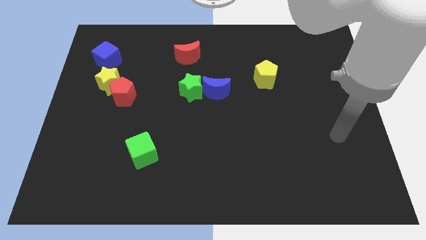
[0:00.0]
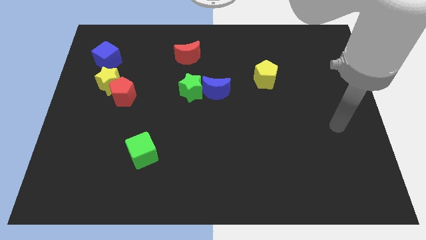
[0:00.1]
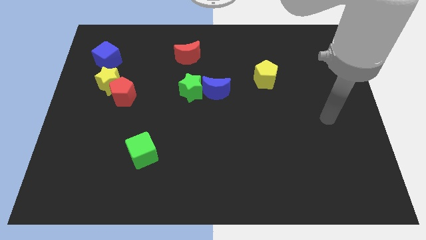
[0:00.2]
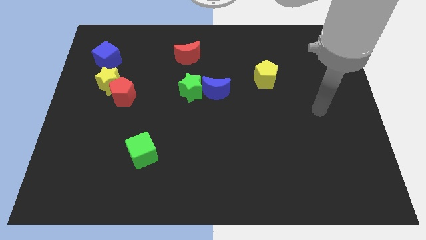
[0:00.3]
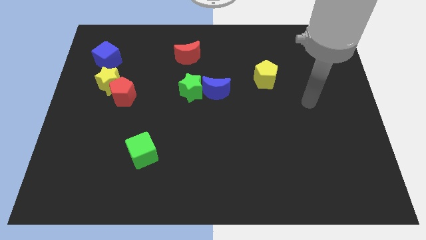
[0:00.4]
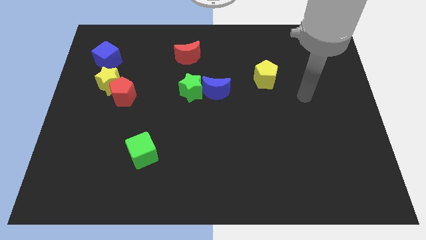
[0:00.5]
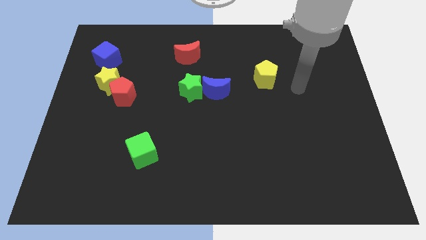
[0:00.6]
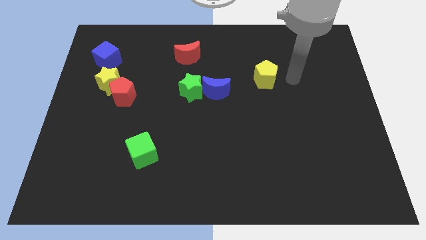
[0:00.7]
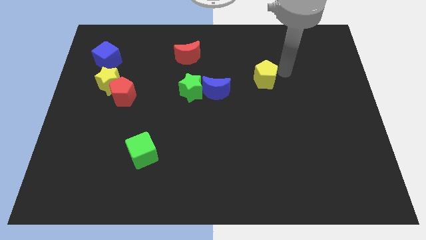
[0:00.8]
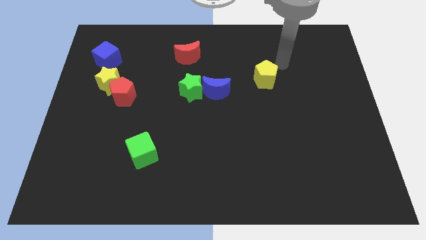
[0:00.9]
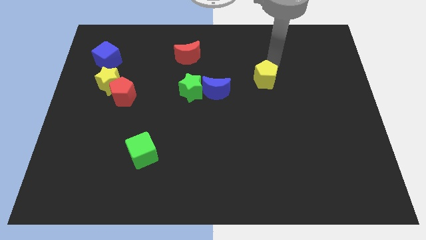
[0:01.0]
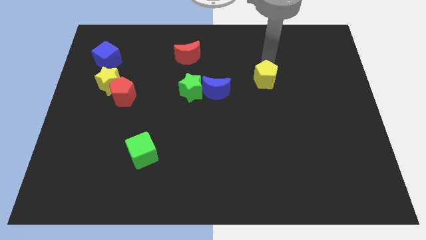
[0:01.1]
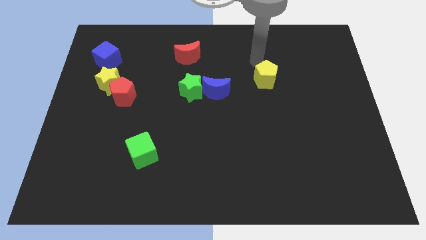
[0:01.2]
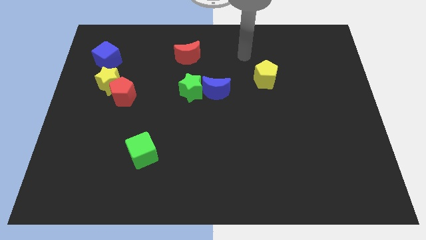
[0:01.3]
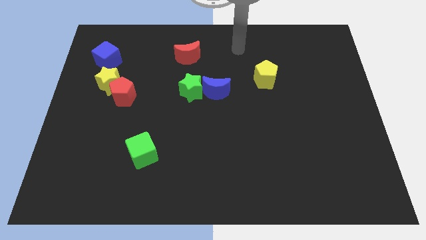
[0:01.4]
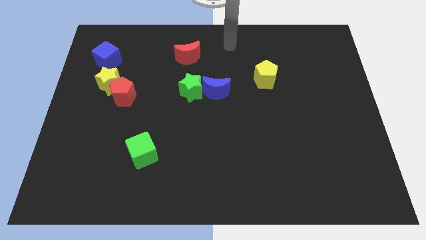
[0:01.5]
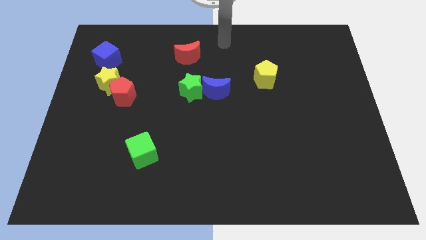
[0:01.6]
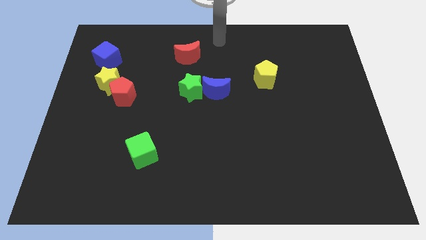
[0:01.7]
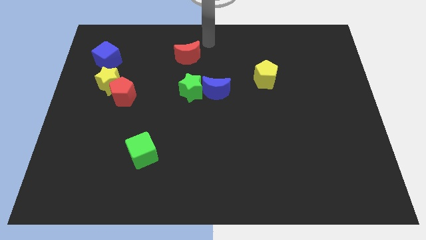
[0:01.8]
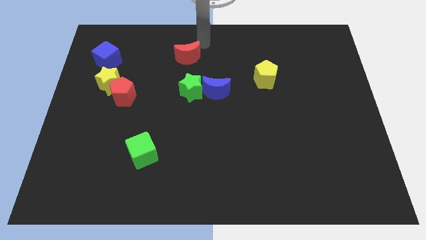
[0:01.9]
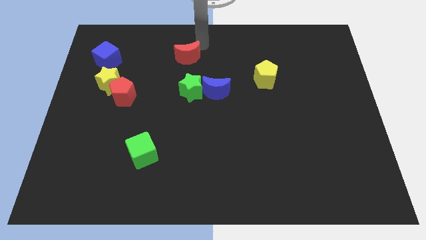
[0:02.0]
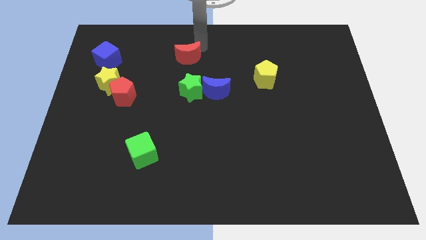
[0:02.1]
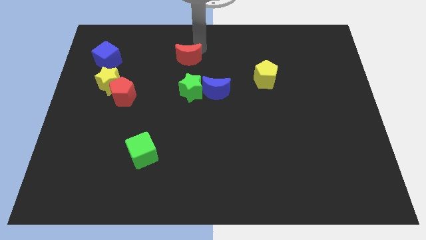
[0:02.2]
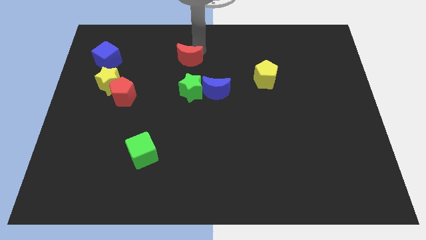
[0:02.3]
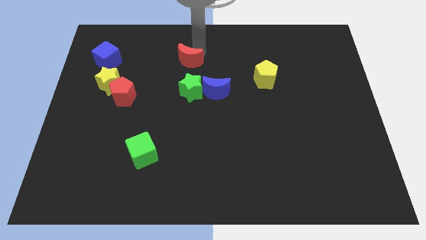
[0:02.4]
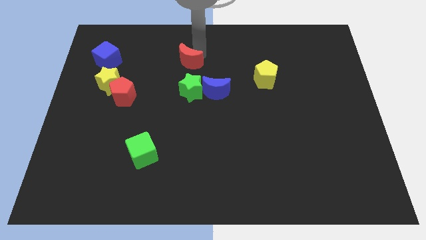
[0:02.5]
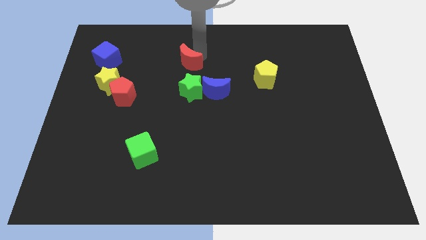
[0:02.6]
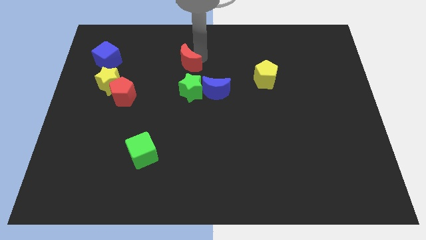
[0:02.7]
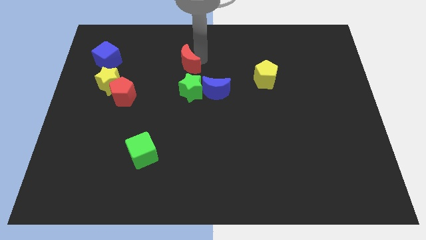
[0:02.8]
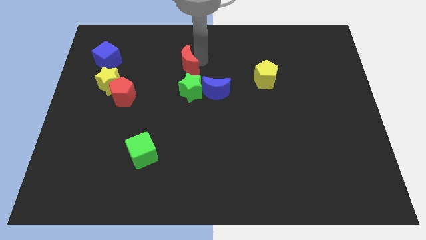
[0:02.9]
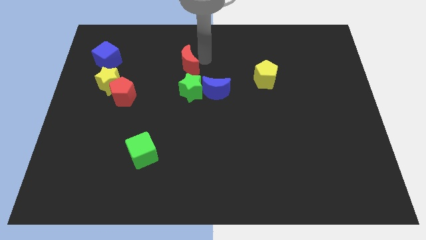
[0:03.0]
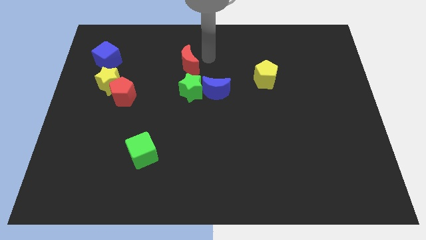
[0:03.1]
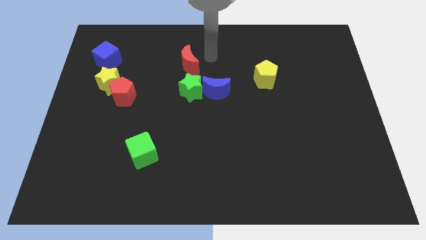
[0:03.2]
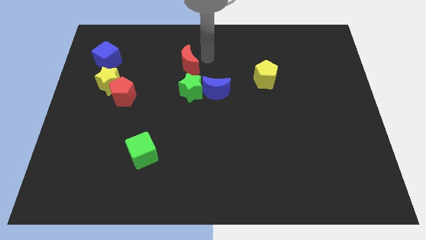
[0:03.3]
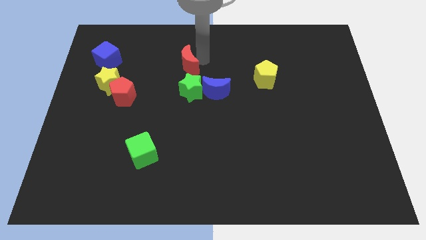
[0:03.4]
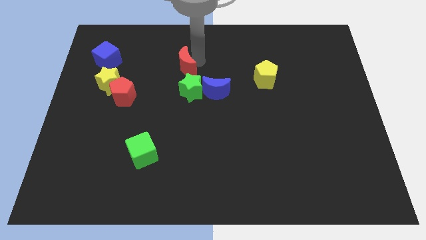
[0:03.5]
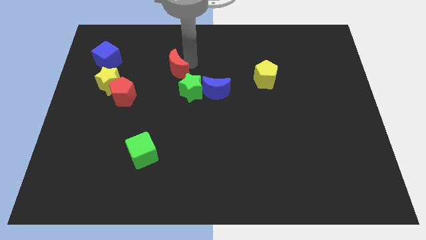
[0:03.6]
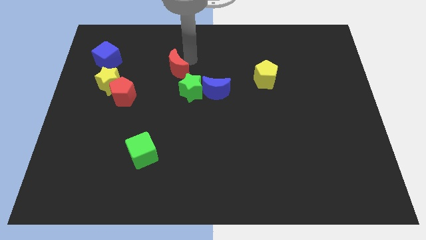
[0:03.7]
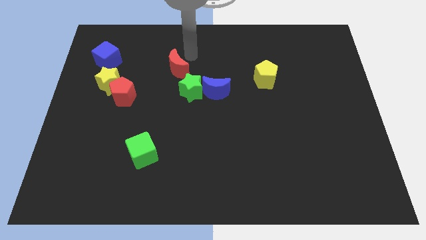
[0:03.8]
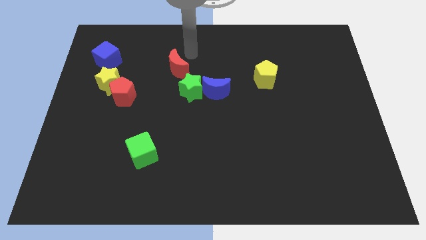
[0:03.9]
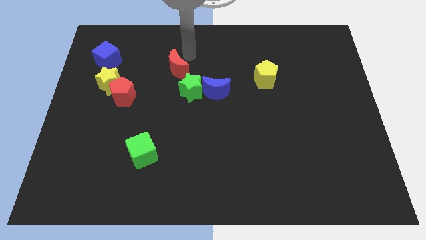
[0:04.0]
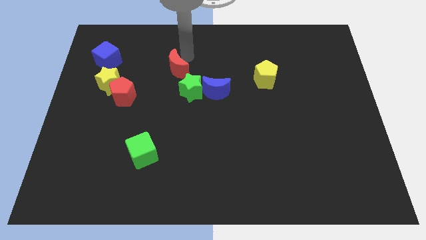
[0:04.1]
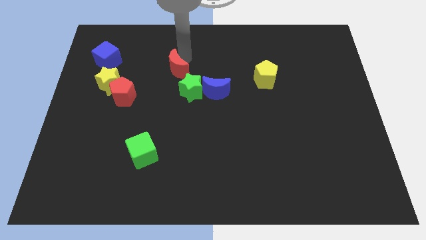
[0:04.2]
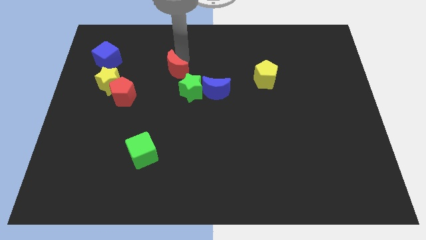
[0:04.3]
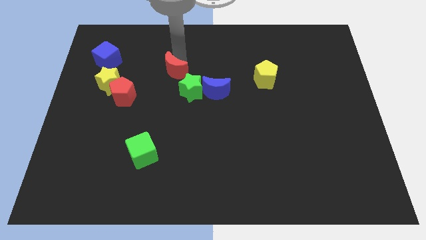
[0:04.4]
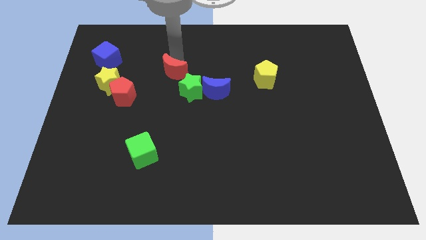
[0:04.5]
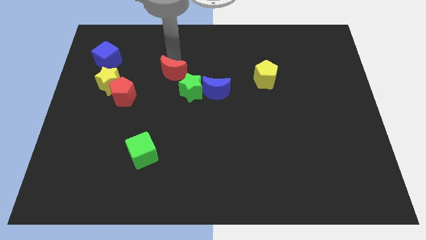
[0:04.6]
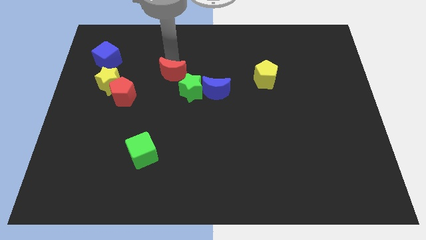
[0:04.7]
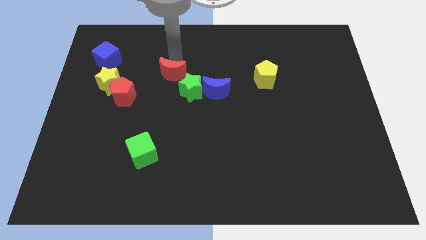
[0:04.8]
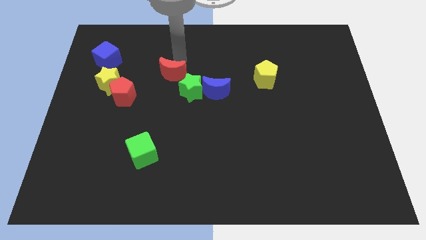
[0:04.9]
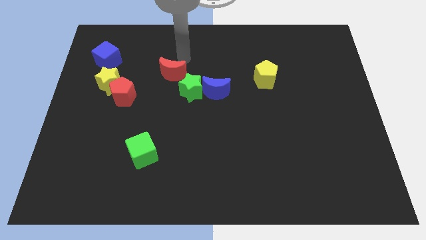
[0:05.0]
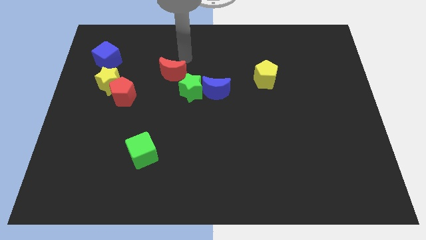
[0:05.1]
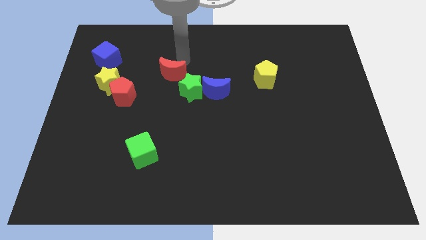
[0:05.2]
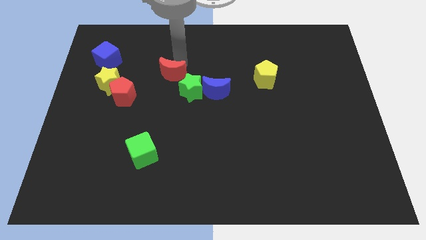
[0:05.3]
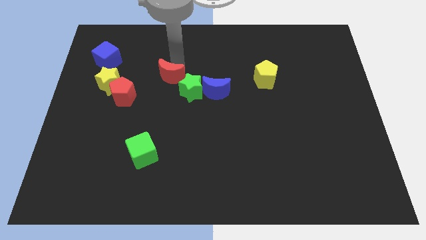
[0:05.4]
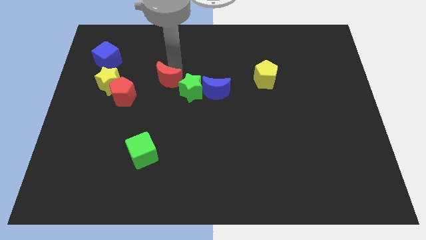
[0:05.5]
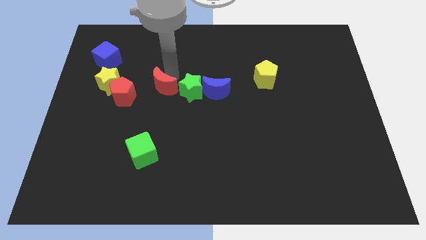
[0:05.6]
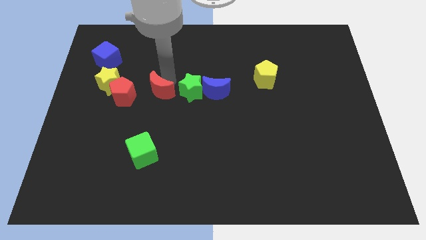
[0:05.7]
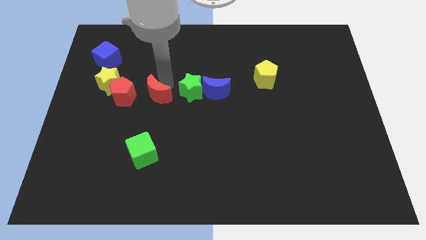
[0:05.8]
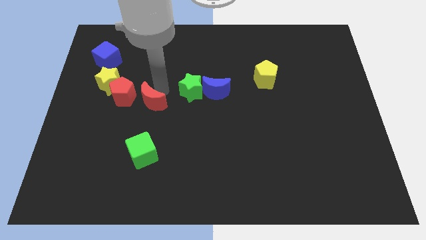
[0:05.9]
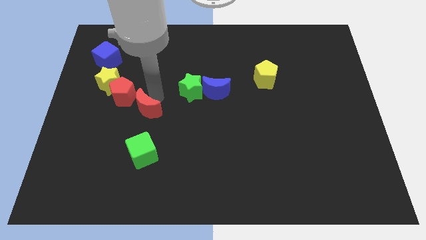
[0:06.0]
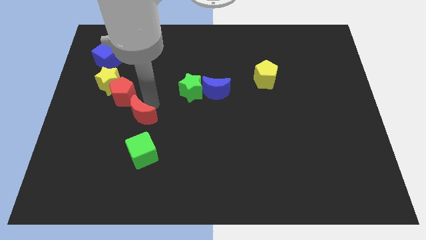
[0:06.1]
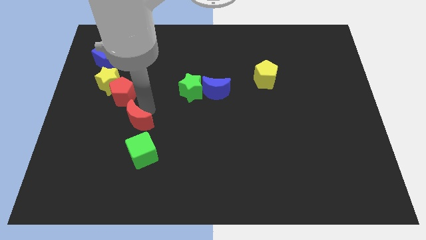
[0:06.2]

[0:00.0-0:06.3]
push the red moon diagonally up and to the left of the green cube

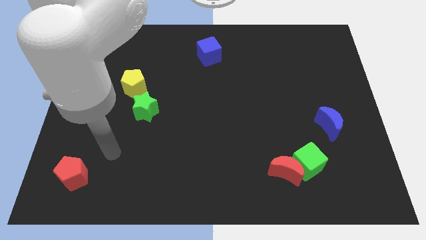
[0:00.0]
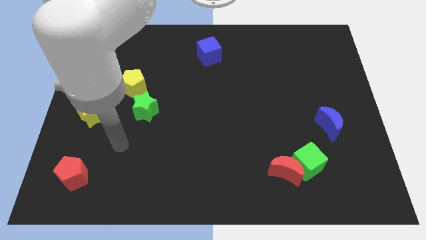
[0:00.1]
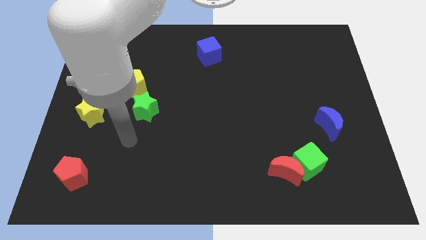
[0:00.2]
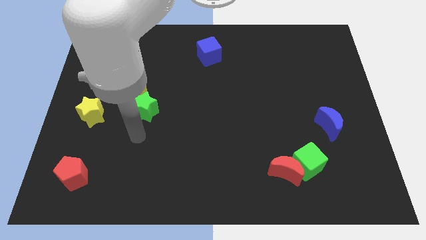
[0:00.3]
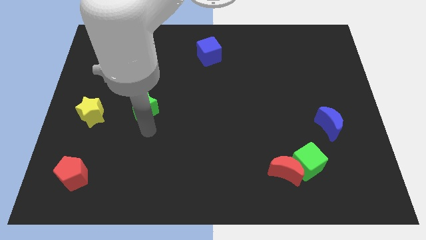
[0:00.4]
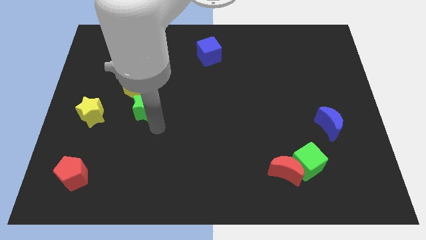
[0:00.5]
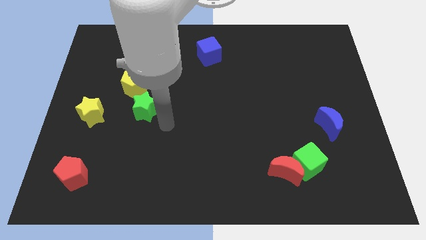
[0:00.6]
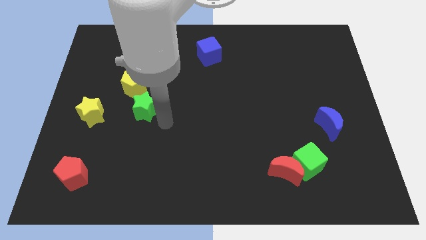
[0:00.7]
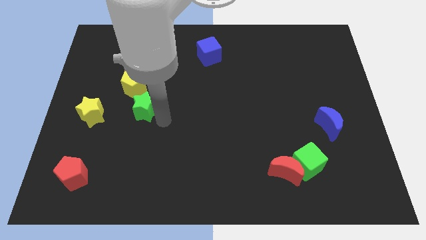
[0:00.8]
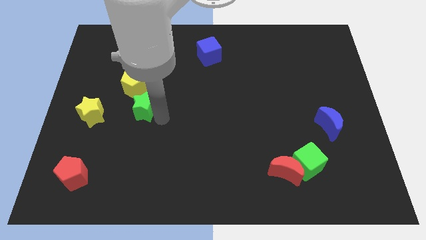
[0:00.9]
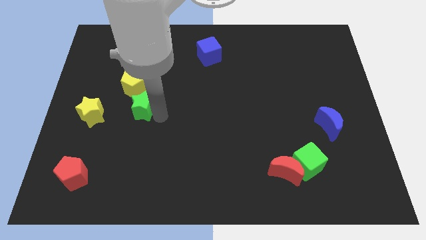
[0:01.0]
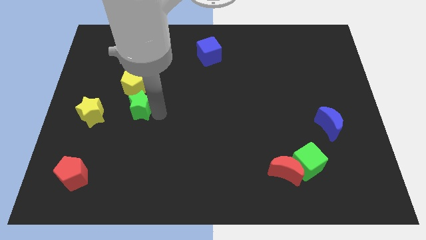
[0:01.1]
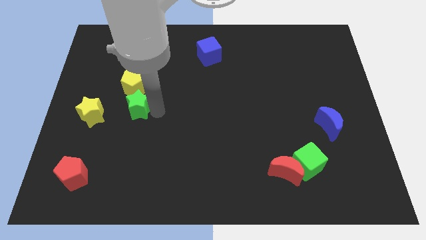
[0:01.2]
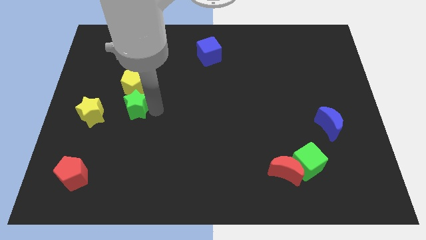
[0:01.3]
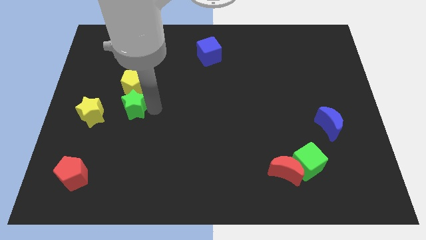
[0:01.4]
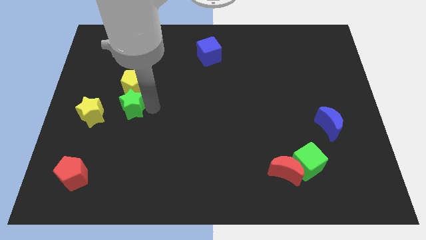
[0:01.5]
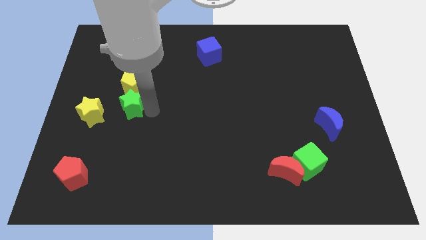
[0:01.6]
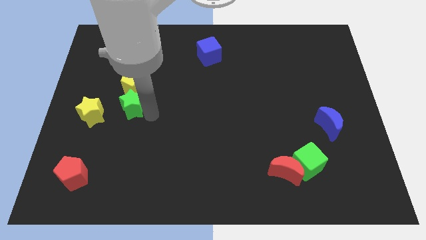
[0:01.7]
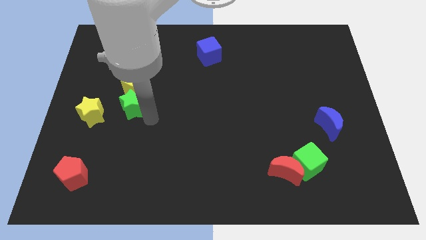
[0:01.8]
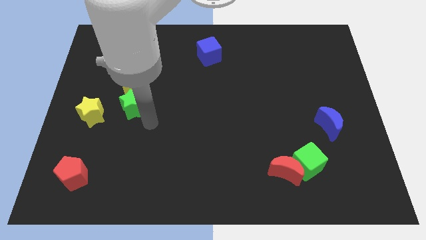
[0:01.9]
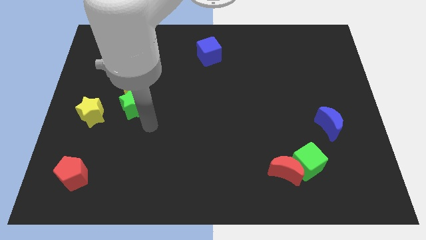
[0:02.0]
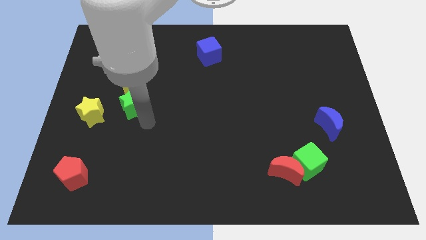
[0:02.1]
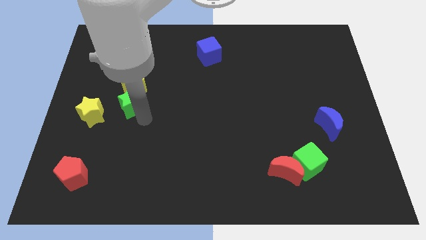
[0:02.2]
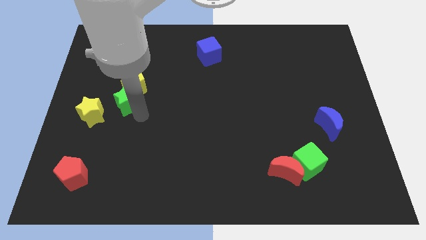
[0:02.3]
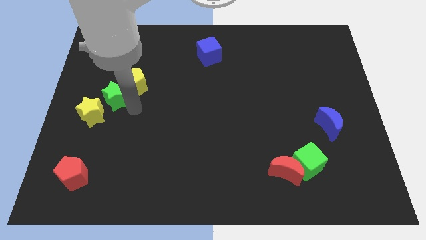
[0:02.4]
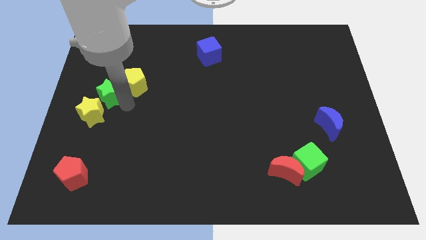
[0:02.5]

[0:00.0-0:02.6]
push the green star above the yellow star
